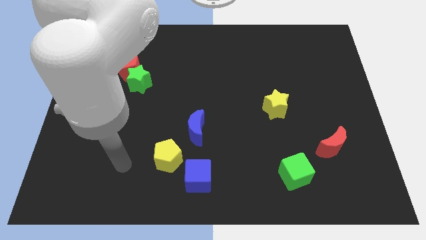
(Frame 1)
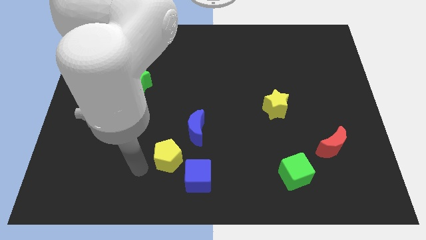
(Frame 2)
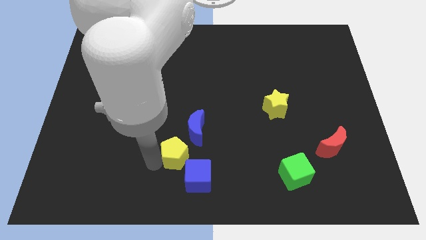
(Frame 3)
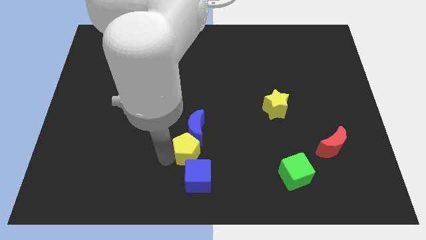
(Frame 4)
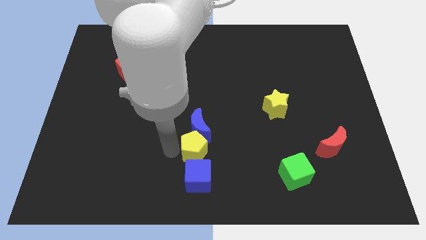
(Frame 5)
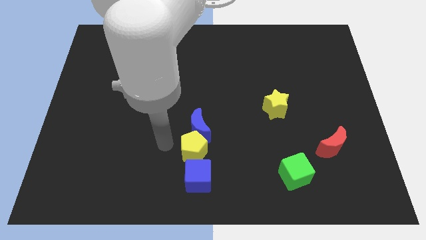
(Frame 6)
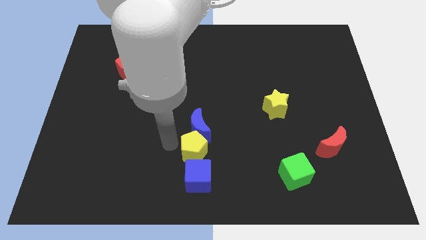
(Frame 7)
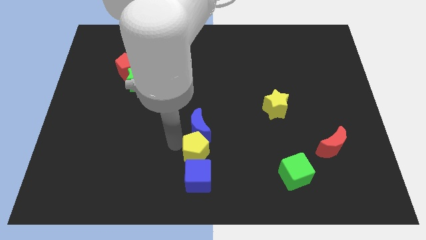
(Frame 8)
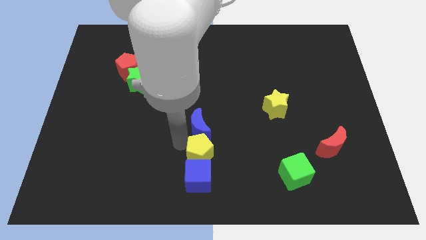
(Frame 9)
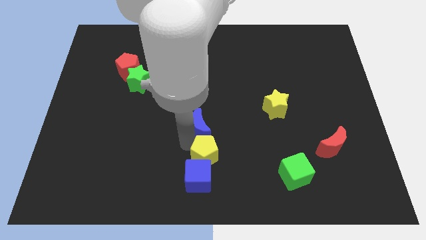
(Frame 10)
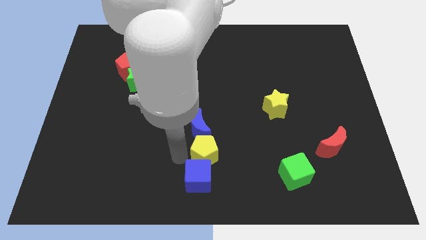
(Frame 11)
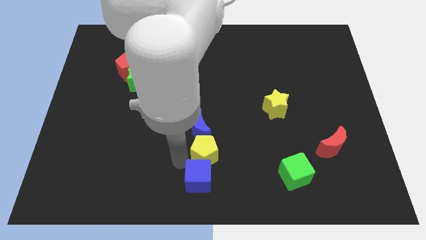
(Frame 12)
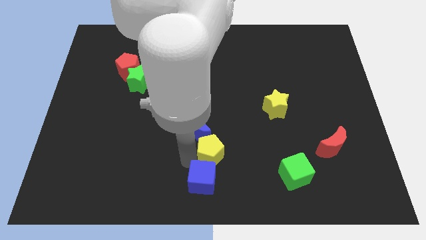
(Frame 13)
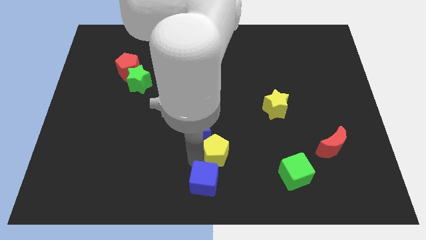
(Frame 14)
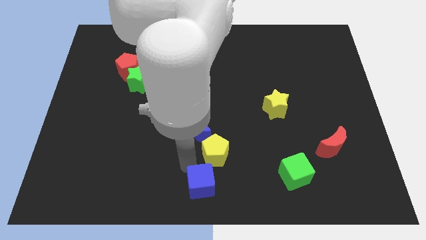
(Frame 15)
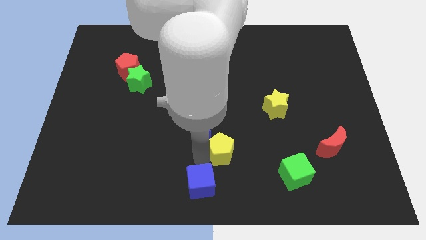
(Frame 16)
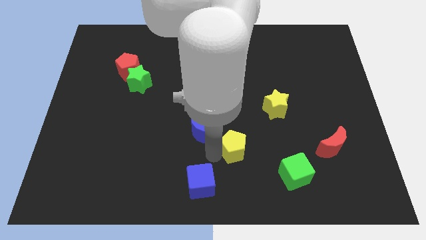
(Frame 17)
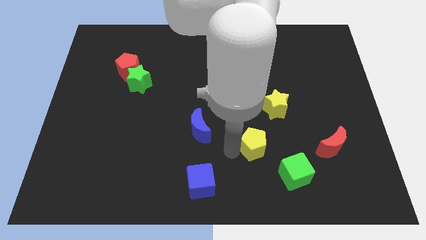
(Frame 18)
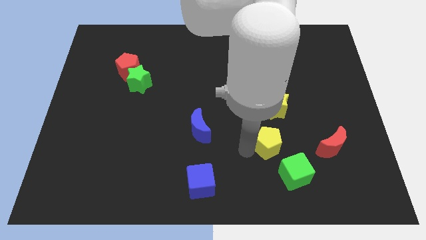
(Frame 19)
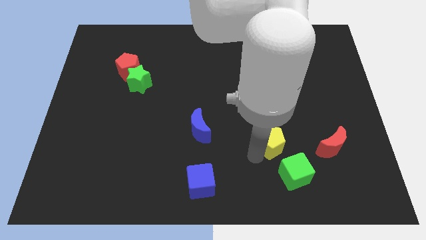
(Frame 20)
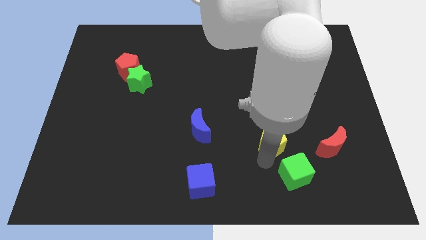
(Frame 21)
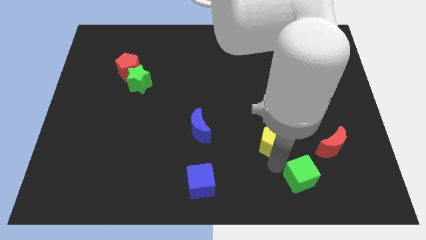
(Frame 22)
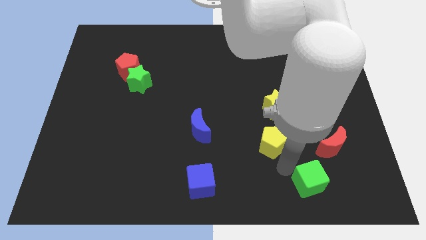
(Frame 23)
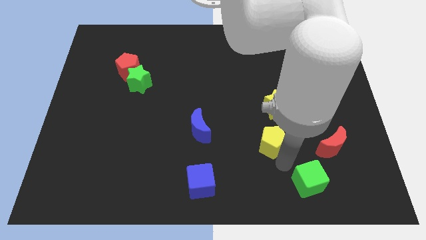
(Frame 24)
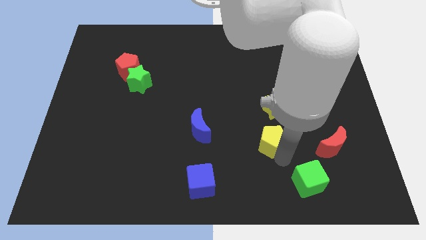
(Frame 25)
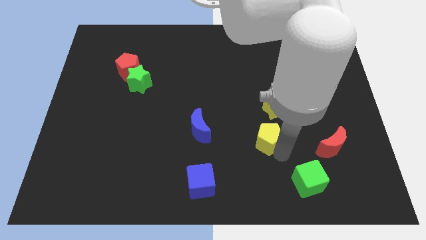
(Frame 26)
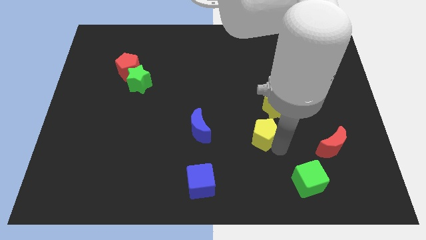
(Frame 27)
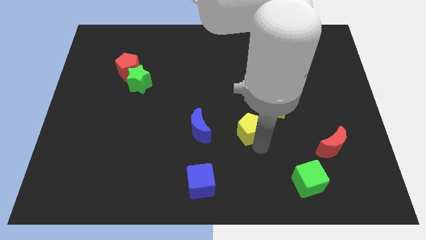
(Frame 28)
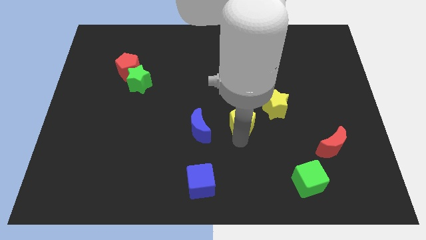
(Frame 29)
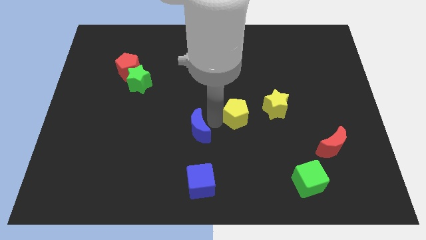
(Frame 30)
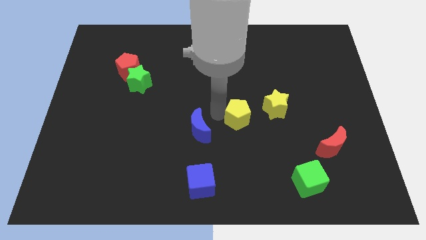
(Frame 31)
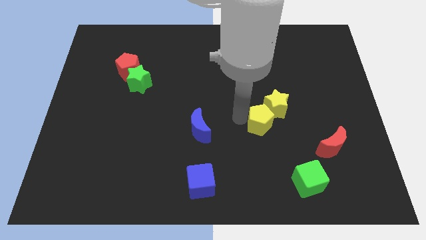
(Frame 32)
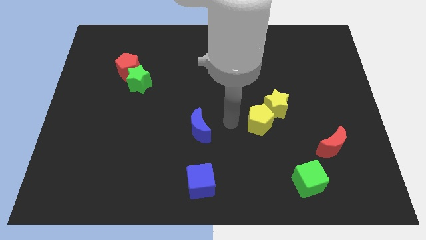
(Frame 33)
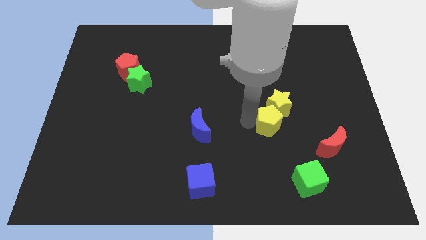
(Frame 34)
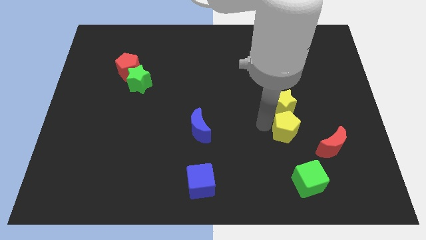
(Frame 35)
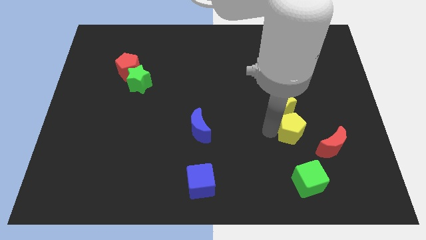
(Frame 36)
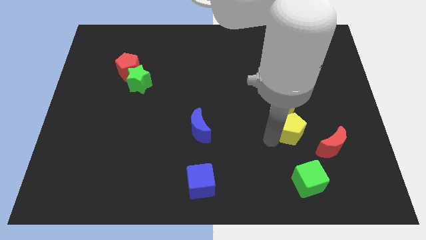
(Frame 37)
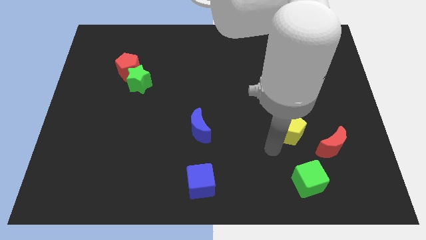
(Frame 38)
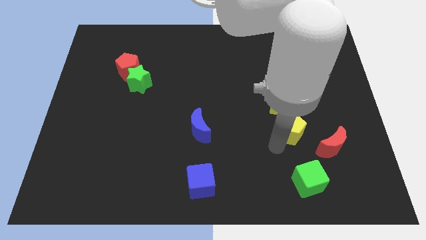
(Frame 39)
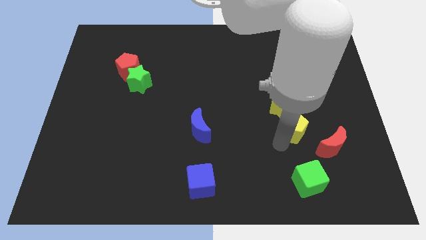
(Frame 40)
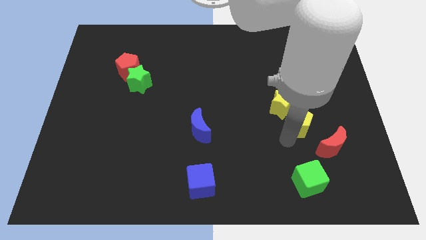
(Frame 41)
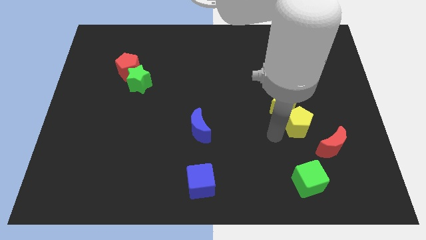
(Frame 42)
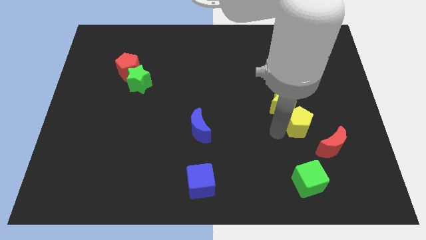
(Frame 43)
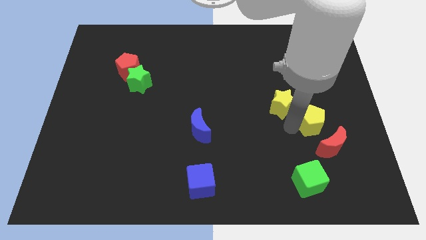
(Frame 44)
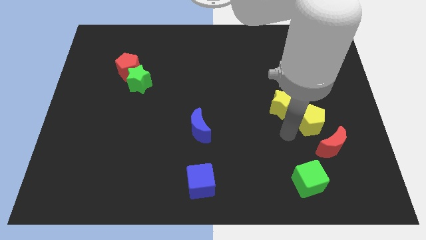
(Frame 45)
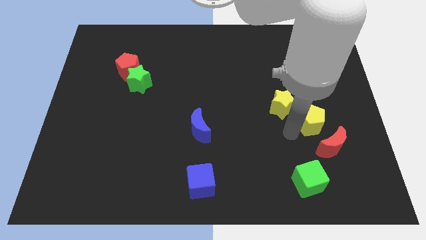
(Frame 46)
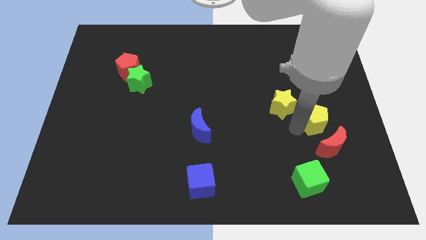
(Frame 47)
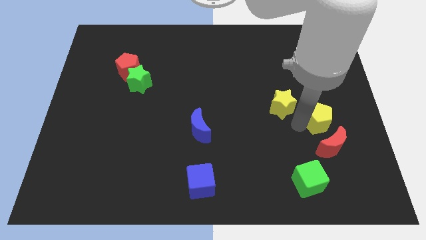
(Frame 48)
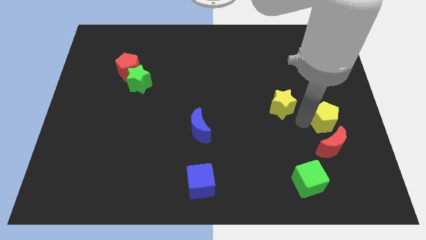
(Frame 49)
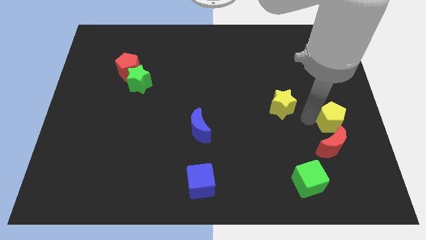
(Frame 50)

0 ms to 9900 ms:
move the yellow pentagon to the right side
